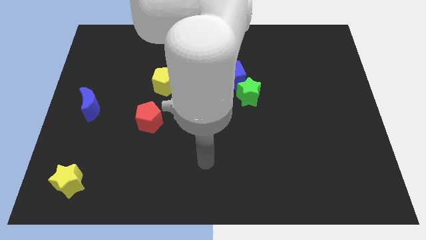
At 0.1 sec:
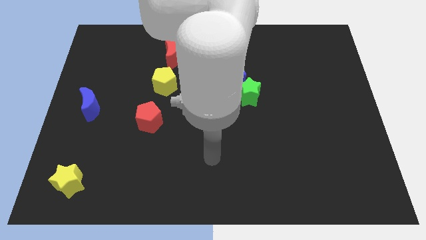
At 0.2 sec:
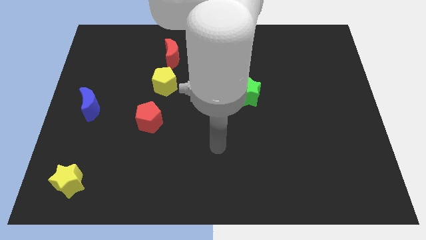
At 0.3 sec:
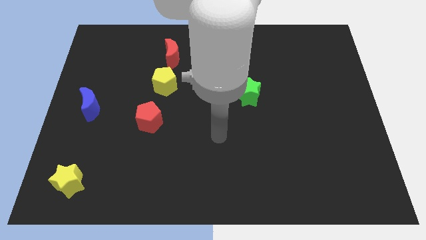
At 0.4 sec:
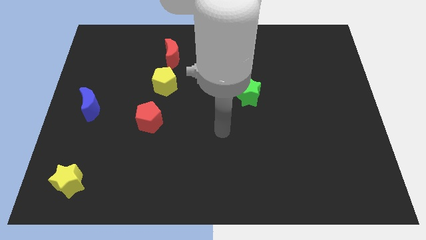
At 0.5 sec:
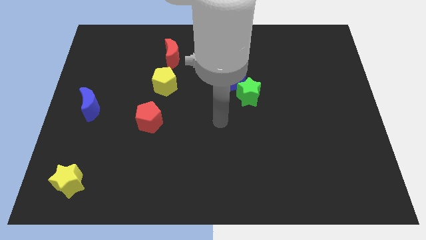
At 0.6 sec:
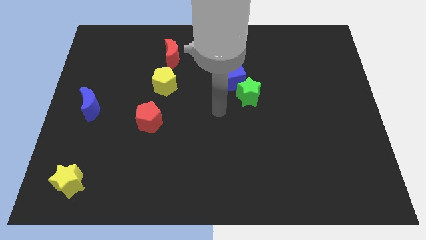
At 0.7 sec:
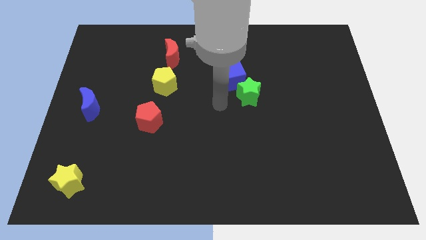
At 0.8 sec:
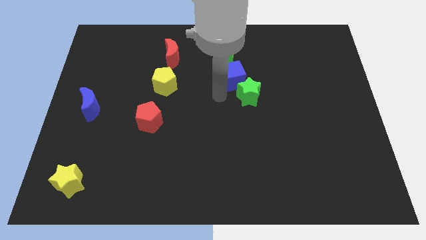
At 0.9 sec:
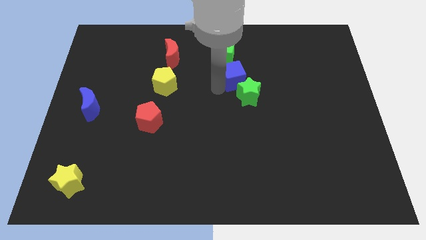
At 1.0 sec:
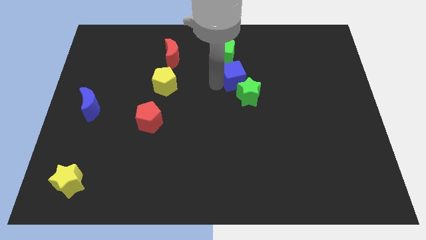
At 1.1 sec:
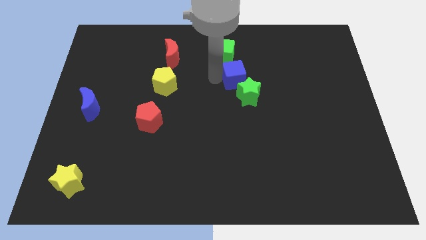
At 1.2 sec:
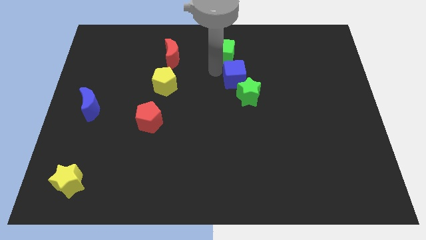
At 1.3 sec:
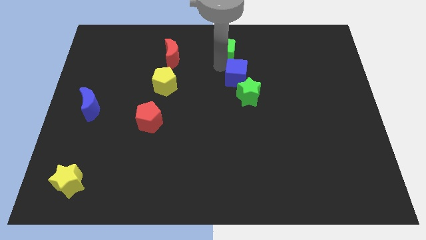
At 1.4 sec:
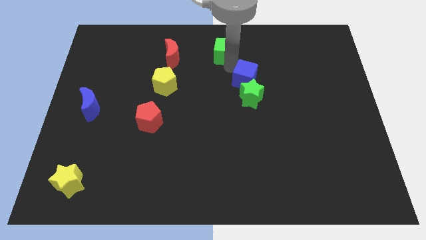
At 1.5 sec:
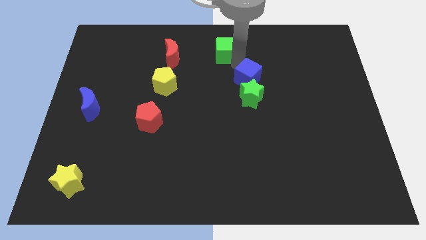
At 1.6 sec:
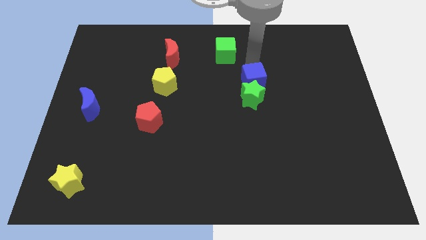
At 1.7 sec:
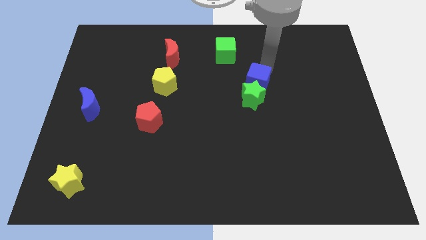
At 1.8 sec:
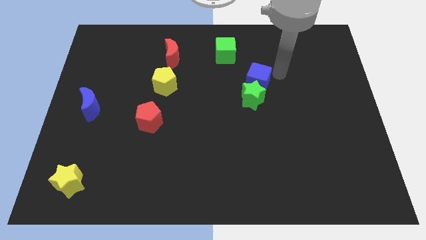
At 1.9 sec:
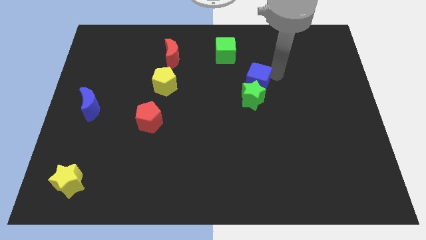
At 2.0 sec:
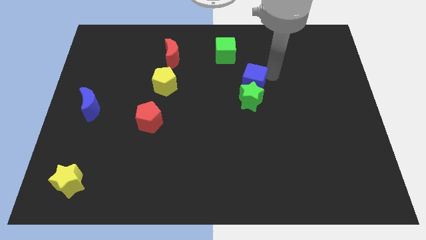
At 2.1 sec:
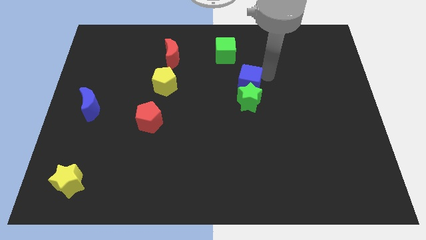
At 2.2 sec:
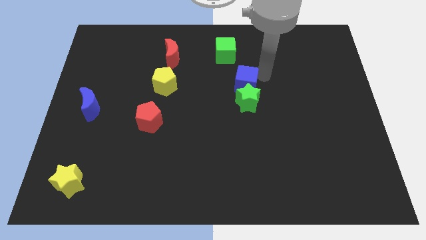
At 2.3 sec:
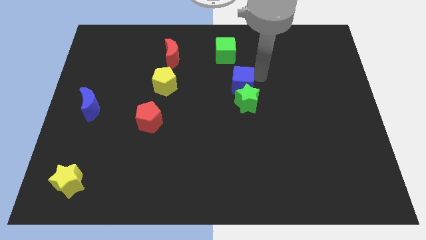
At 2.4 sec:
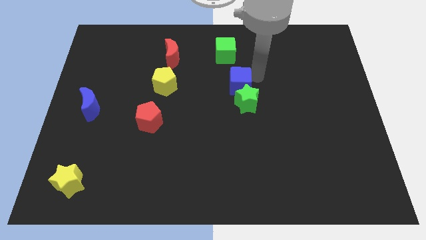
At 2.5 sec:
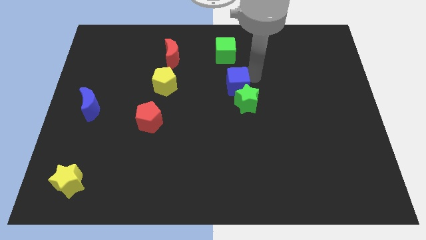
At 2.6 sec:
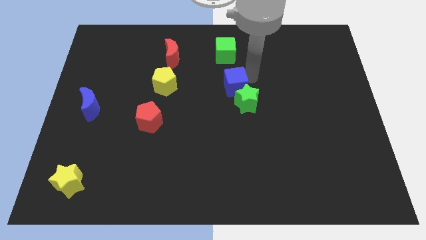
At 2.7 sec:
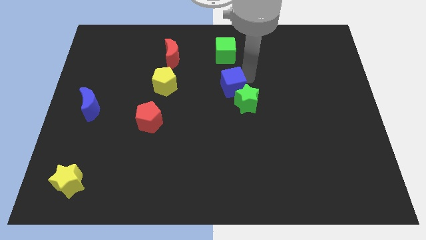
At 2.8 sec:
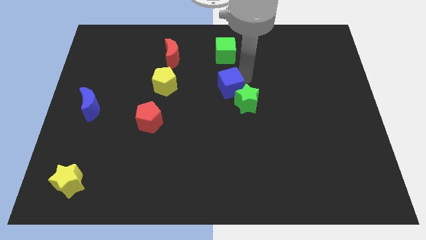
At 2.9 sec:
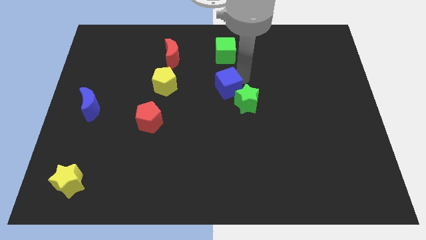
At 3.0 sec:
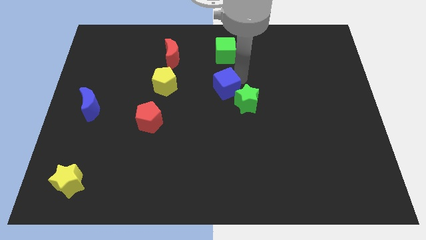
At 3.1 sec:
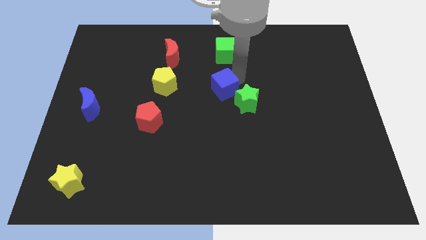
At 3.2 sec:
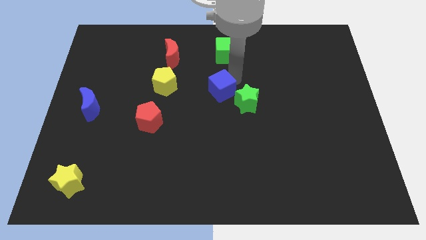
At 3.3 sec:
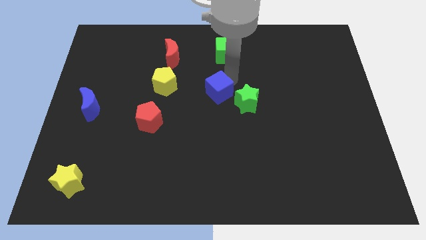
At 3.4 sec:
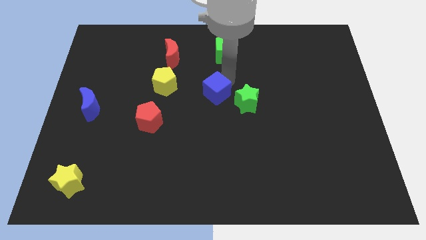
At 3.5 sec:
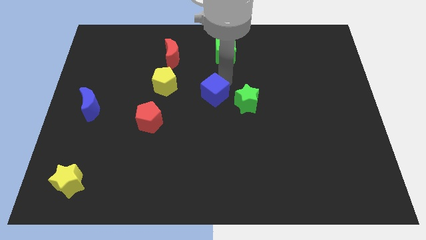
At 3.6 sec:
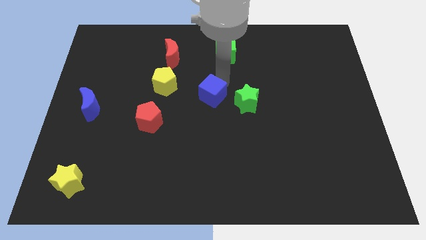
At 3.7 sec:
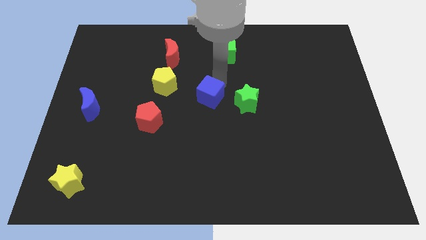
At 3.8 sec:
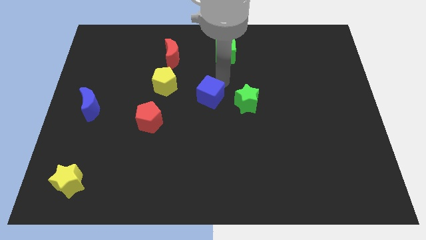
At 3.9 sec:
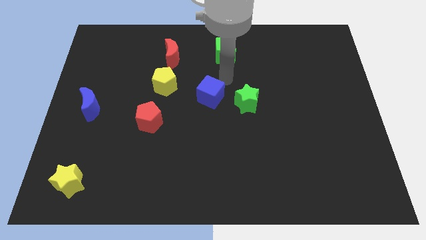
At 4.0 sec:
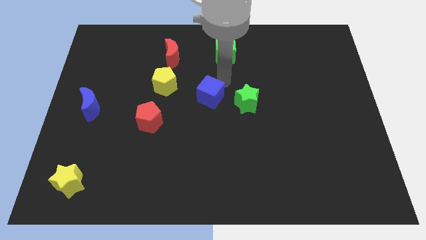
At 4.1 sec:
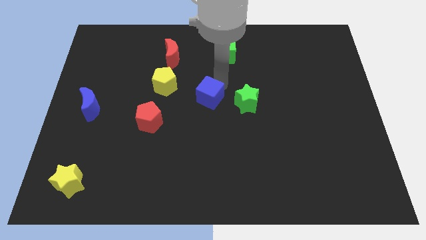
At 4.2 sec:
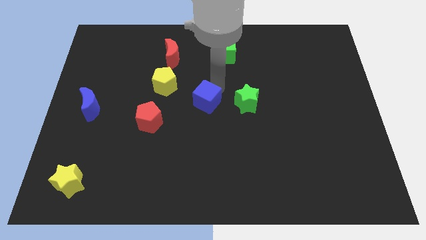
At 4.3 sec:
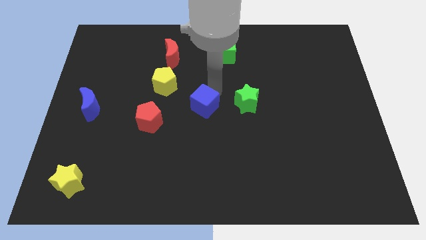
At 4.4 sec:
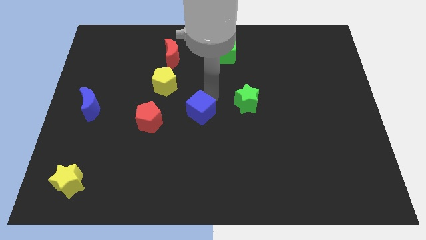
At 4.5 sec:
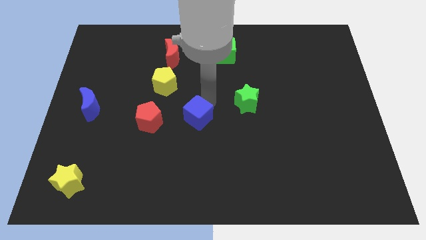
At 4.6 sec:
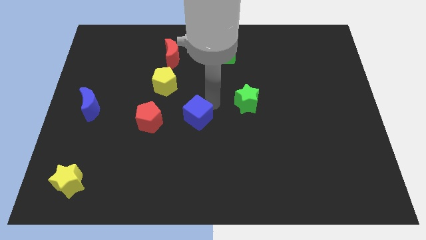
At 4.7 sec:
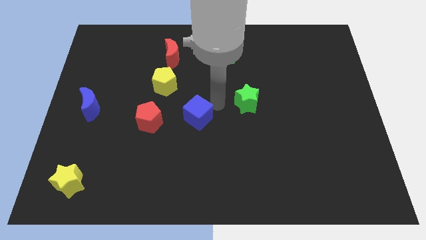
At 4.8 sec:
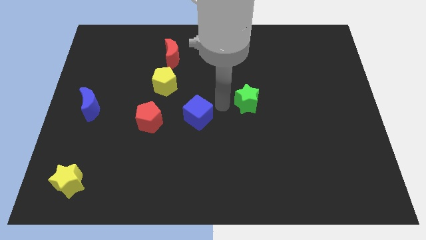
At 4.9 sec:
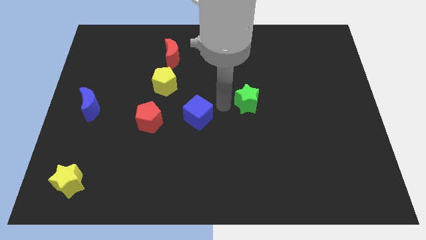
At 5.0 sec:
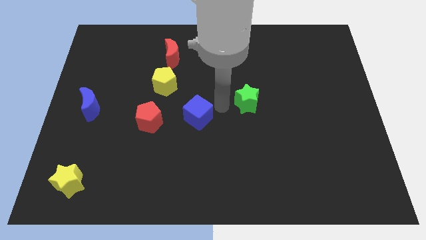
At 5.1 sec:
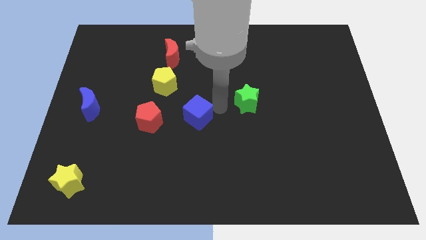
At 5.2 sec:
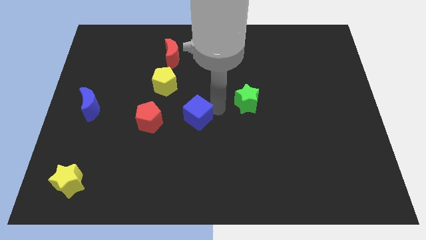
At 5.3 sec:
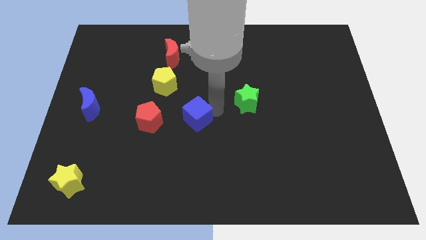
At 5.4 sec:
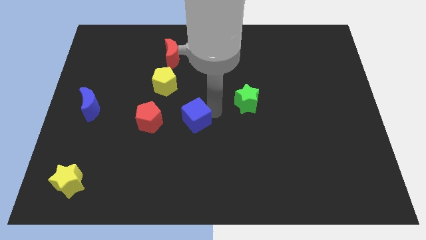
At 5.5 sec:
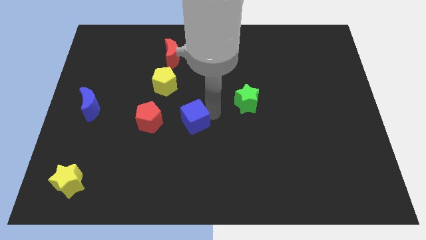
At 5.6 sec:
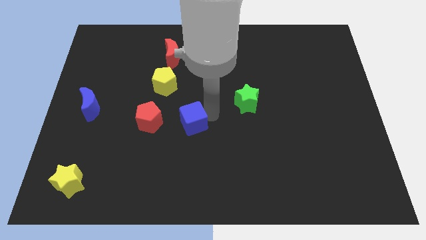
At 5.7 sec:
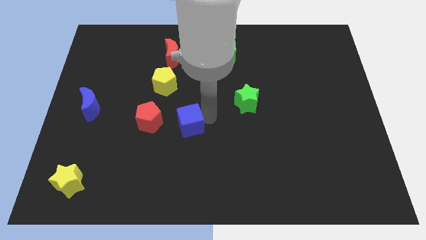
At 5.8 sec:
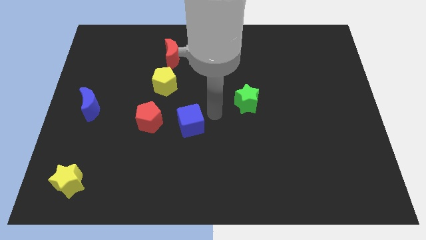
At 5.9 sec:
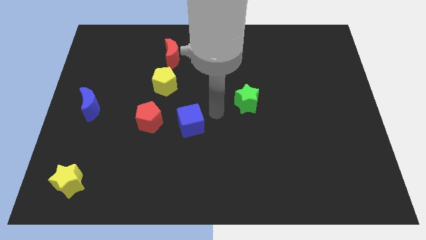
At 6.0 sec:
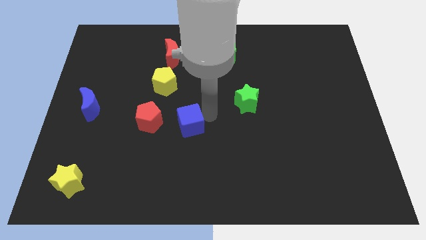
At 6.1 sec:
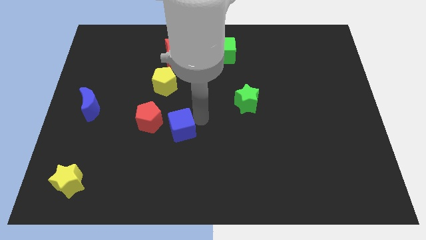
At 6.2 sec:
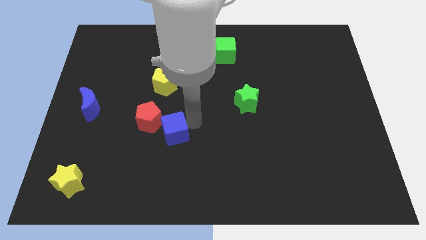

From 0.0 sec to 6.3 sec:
slide the blue cube down and then to the left

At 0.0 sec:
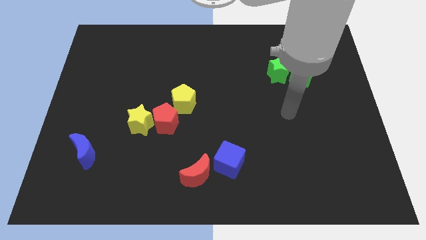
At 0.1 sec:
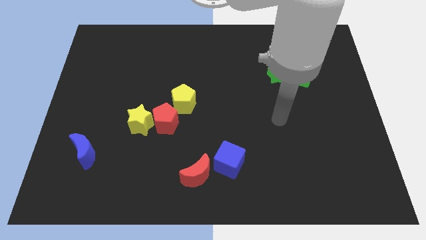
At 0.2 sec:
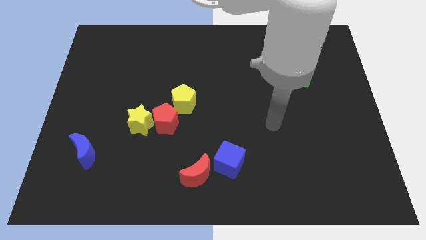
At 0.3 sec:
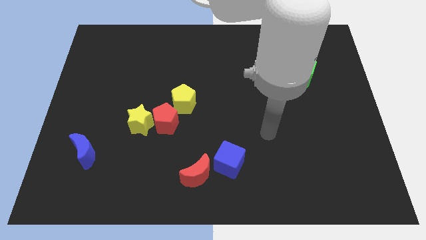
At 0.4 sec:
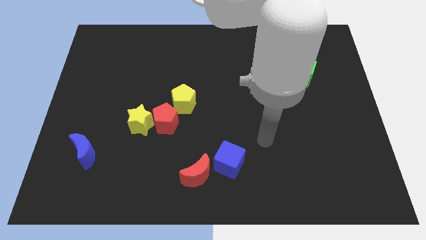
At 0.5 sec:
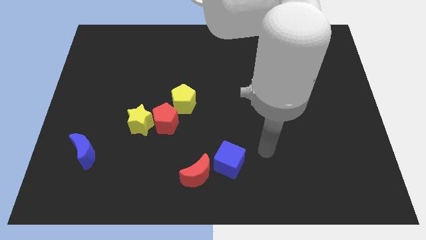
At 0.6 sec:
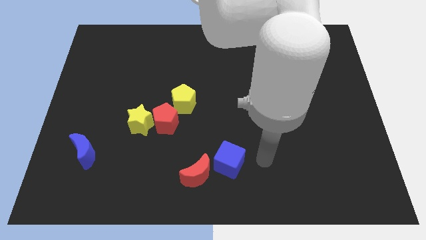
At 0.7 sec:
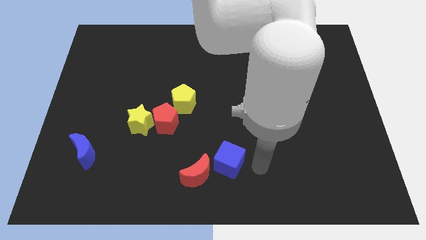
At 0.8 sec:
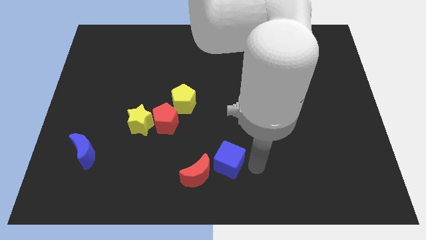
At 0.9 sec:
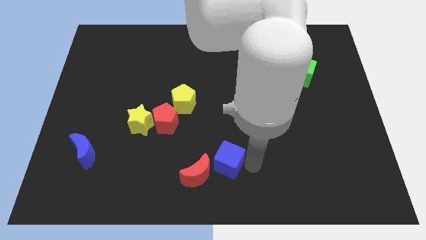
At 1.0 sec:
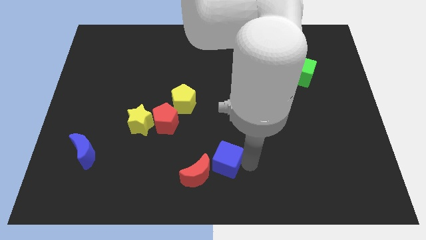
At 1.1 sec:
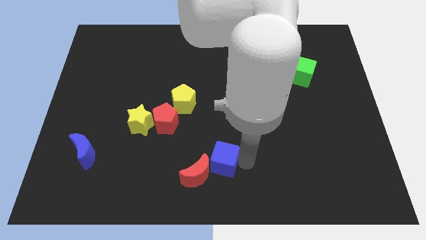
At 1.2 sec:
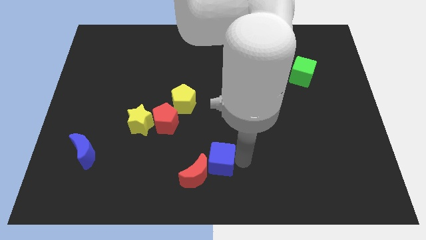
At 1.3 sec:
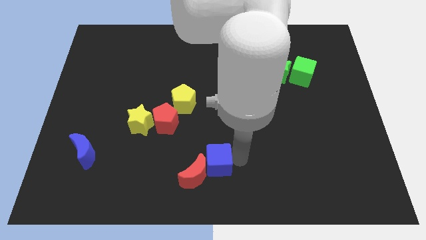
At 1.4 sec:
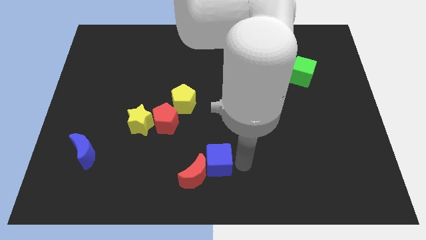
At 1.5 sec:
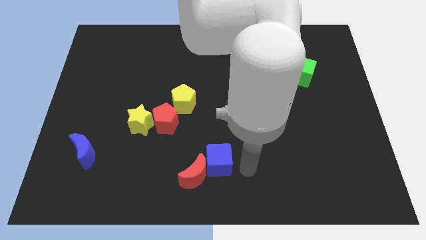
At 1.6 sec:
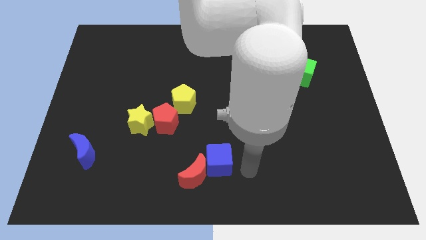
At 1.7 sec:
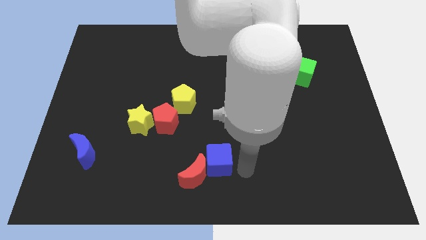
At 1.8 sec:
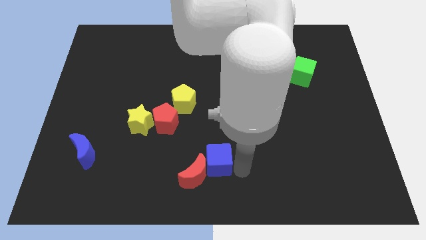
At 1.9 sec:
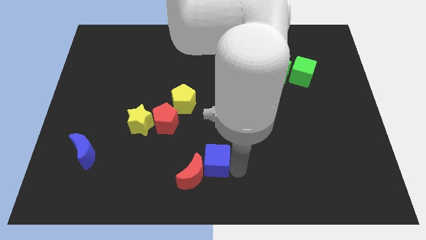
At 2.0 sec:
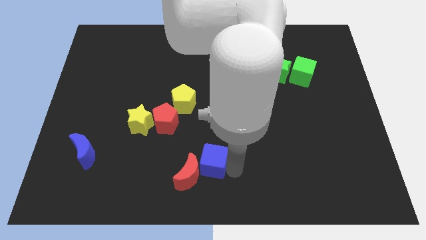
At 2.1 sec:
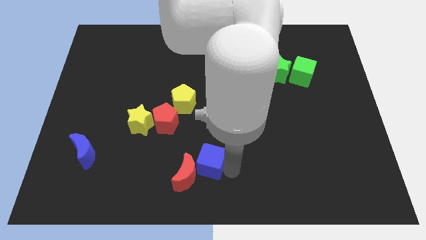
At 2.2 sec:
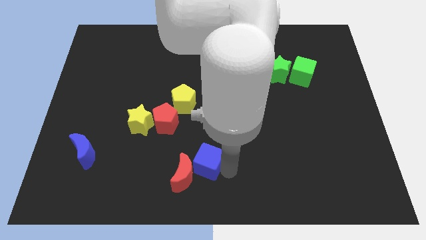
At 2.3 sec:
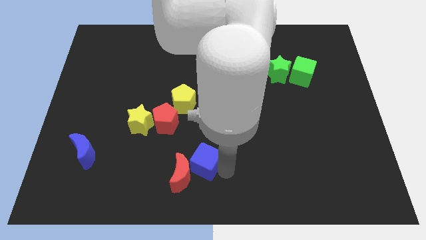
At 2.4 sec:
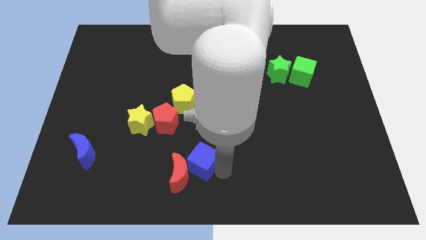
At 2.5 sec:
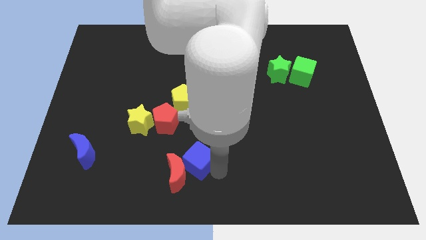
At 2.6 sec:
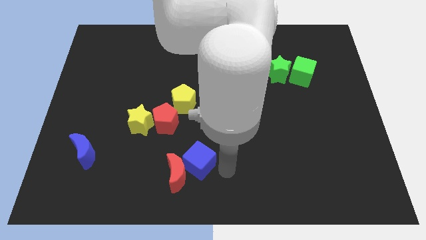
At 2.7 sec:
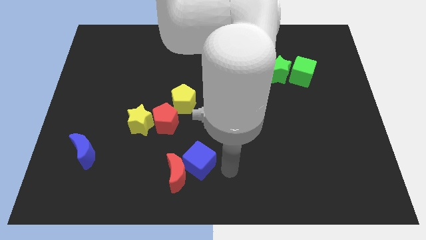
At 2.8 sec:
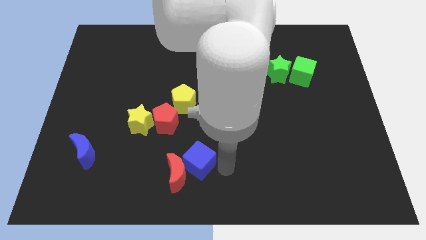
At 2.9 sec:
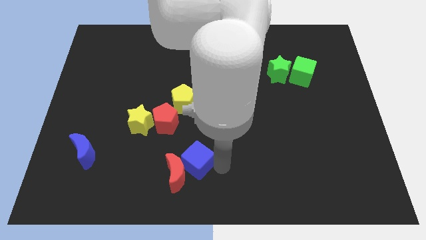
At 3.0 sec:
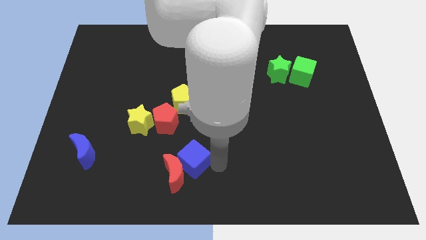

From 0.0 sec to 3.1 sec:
slightly slide the blue cube left
